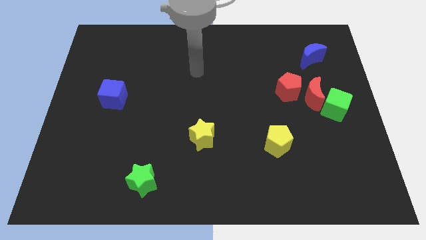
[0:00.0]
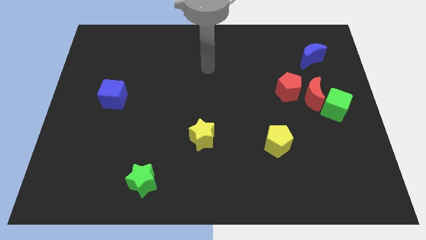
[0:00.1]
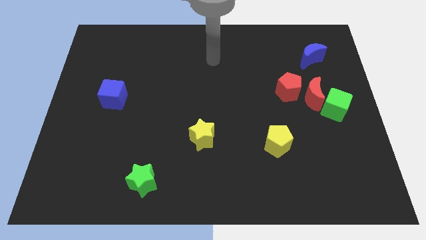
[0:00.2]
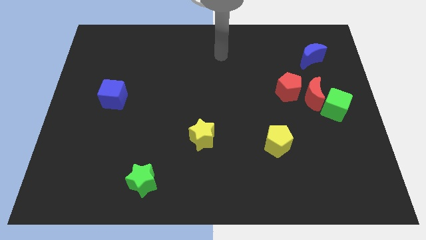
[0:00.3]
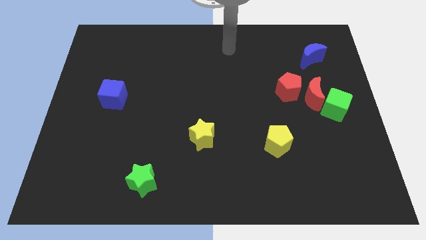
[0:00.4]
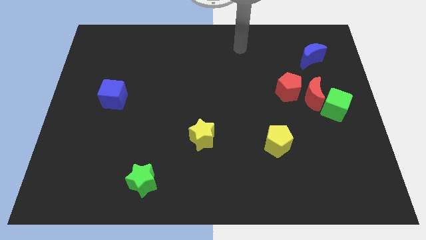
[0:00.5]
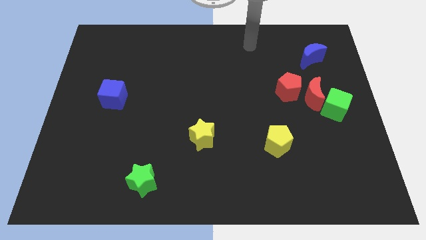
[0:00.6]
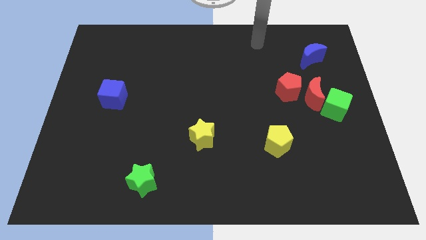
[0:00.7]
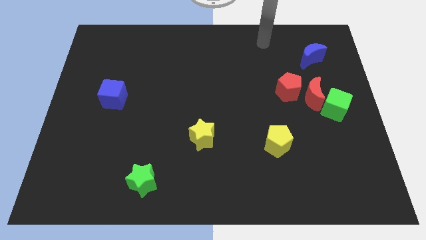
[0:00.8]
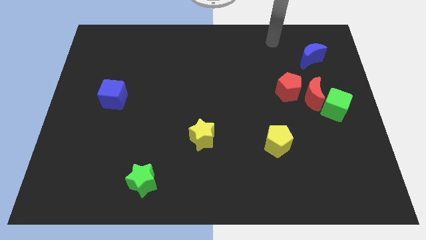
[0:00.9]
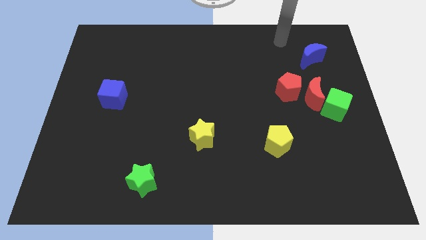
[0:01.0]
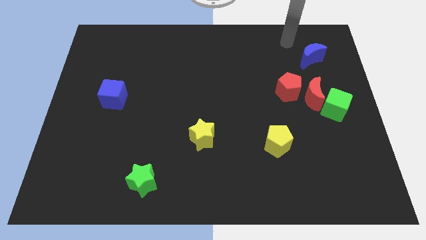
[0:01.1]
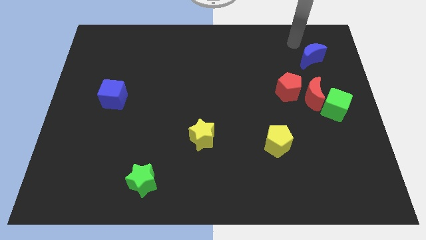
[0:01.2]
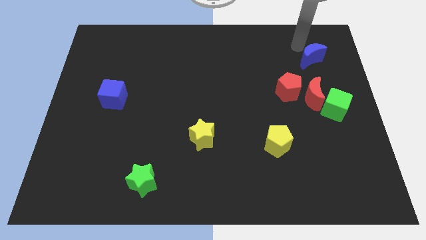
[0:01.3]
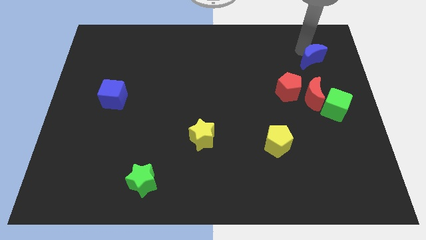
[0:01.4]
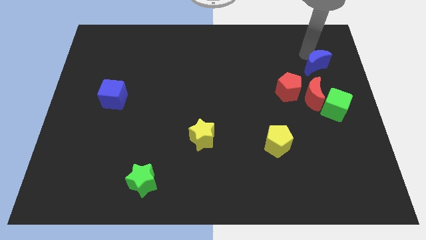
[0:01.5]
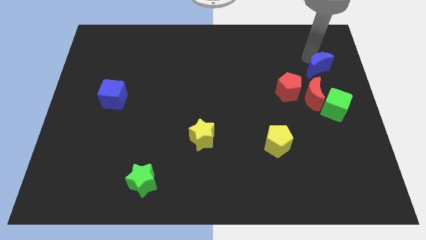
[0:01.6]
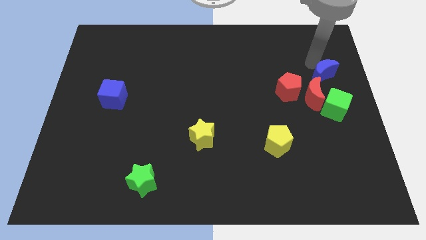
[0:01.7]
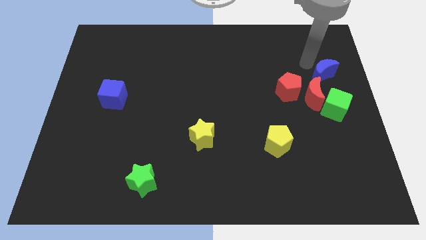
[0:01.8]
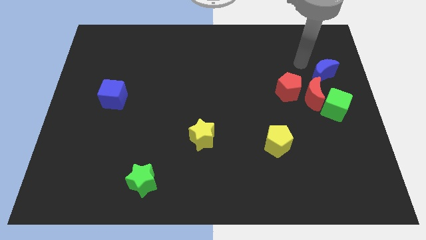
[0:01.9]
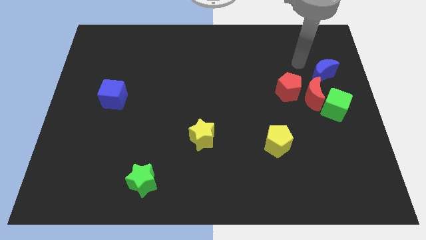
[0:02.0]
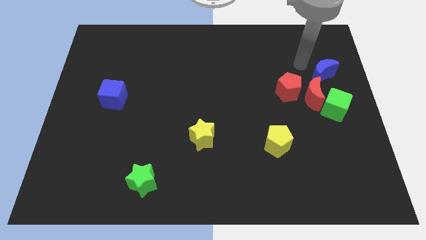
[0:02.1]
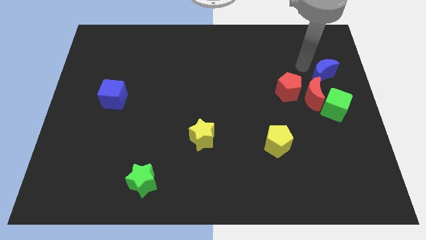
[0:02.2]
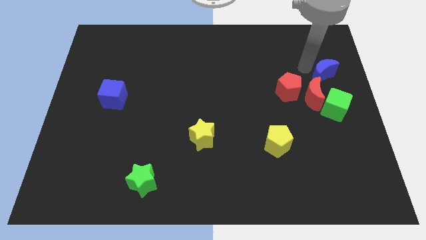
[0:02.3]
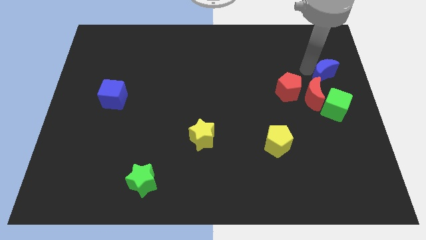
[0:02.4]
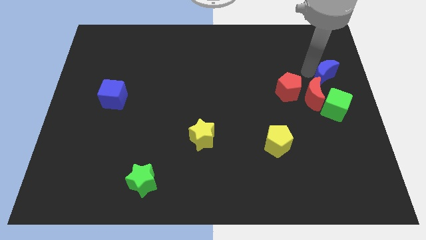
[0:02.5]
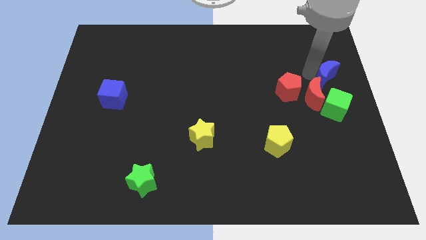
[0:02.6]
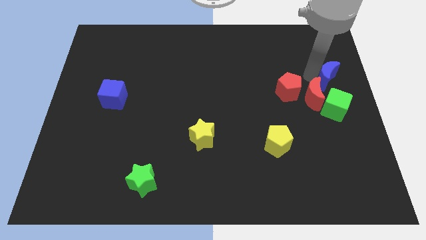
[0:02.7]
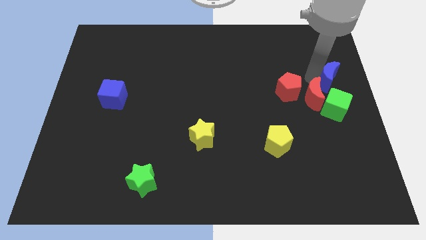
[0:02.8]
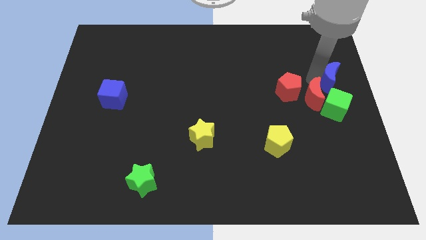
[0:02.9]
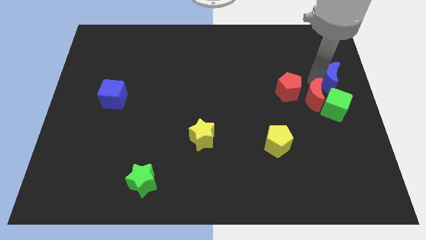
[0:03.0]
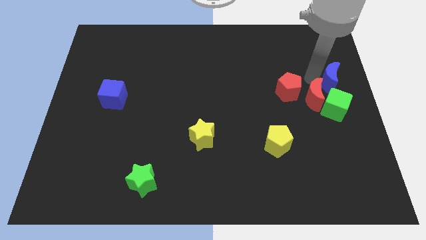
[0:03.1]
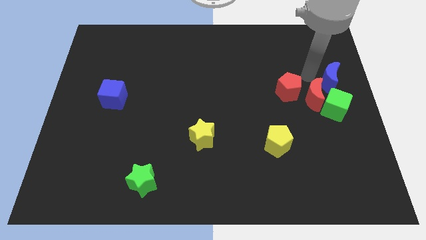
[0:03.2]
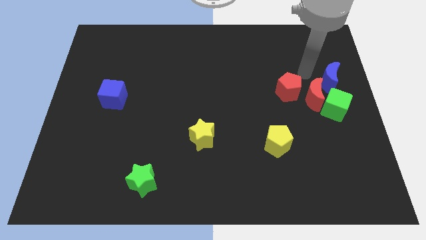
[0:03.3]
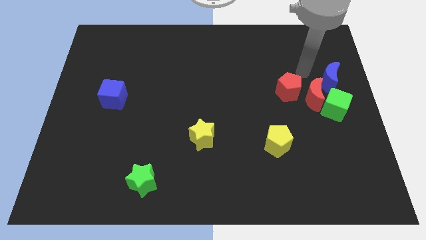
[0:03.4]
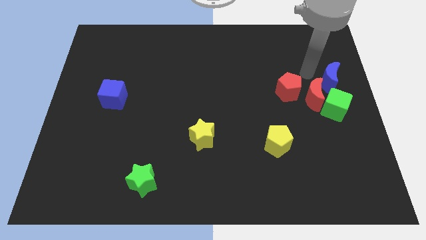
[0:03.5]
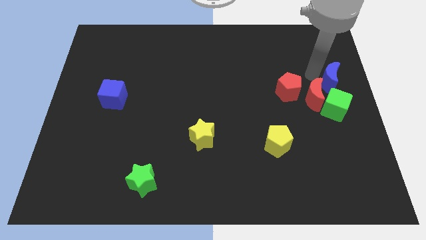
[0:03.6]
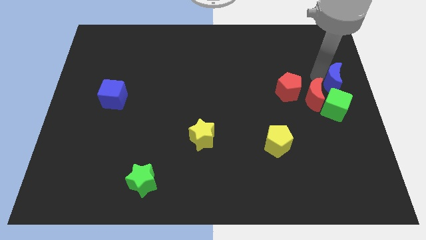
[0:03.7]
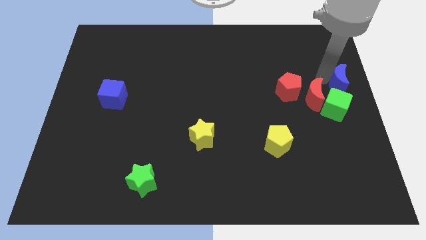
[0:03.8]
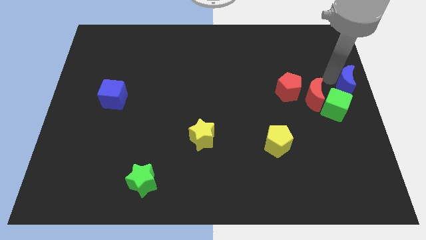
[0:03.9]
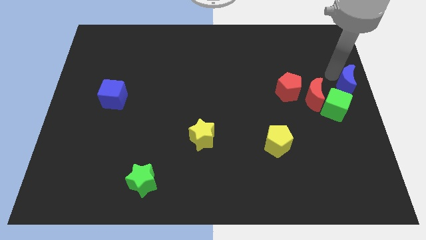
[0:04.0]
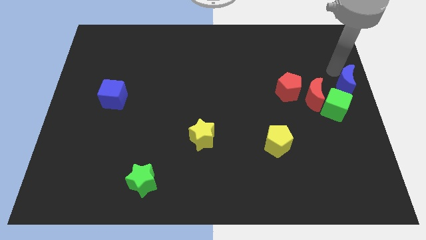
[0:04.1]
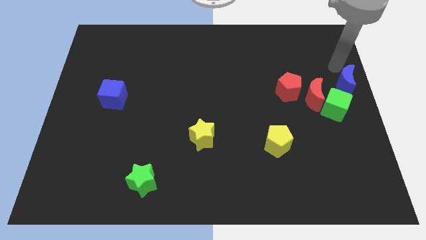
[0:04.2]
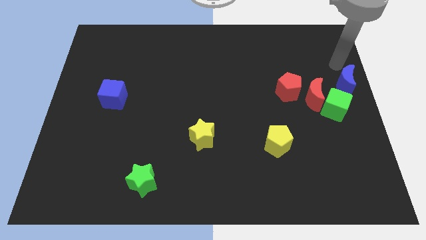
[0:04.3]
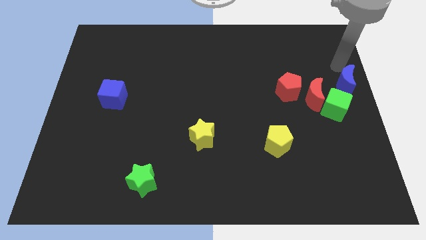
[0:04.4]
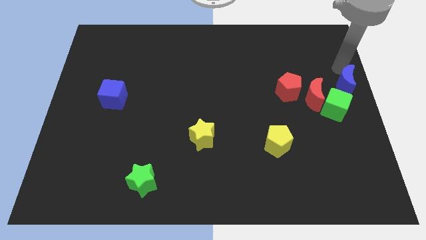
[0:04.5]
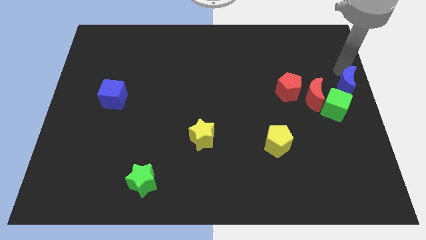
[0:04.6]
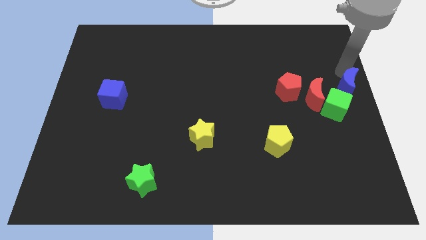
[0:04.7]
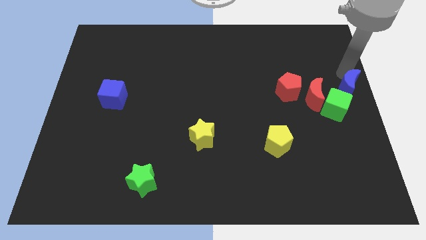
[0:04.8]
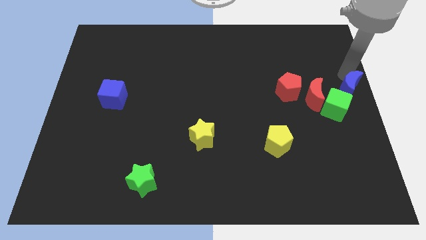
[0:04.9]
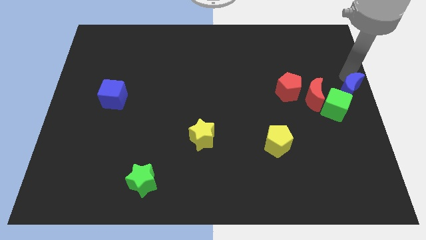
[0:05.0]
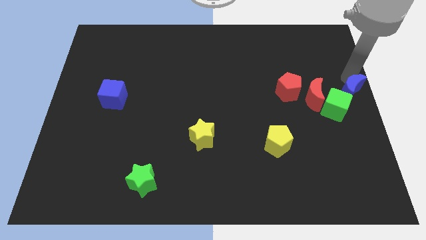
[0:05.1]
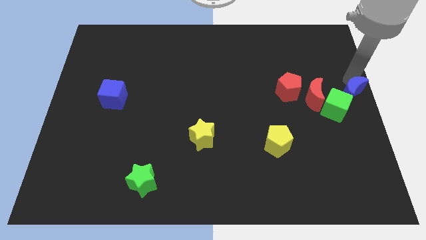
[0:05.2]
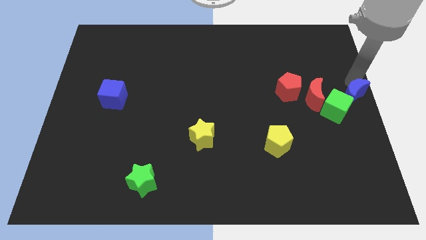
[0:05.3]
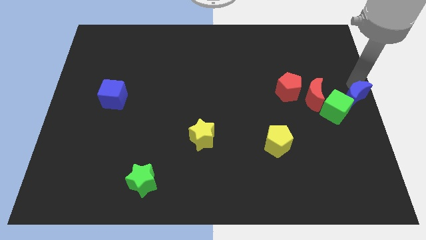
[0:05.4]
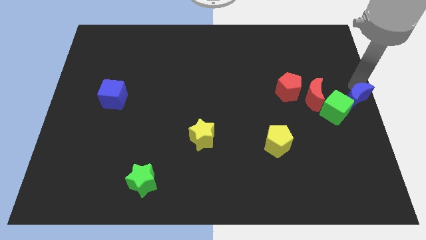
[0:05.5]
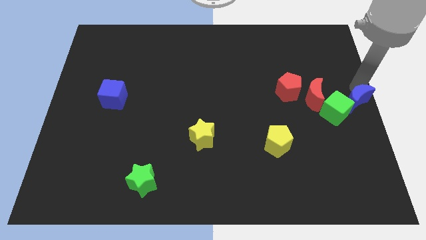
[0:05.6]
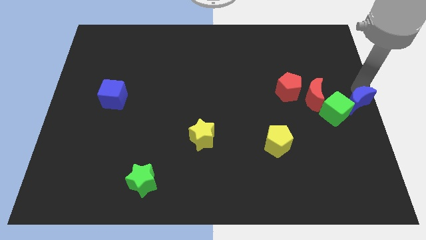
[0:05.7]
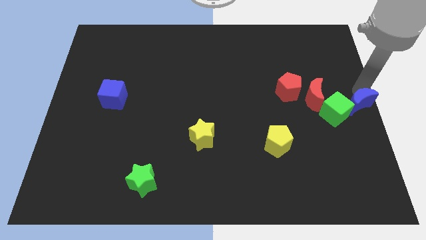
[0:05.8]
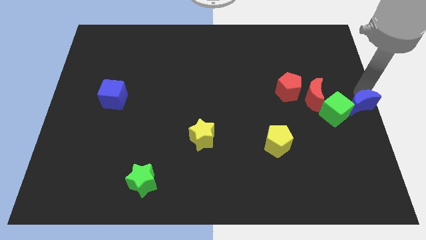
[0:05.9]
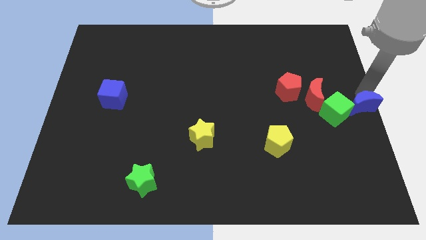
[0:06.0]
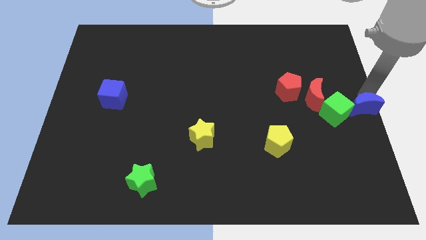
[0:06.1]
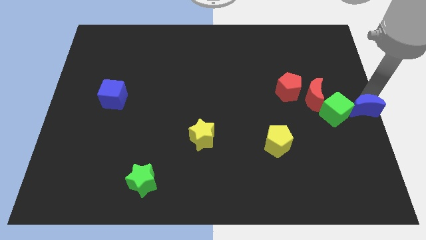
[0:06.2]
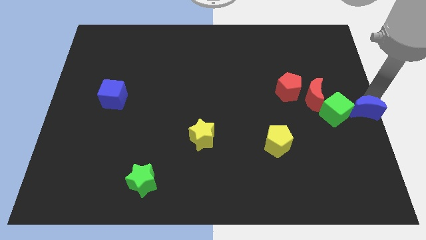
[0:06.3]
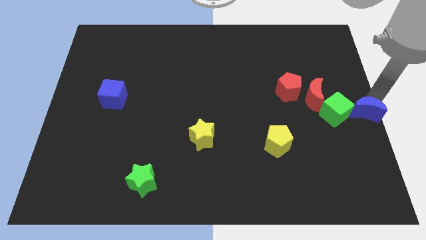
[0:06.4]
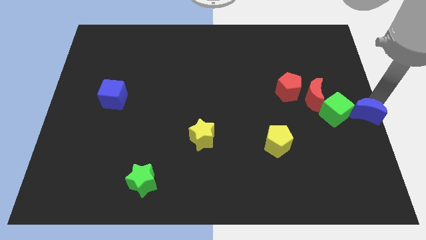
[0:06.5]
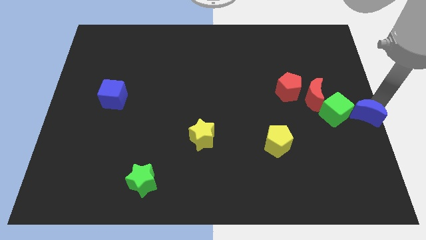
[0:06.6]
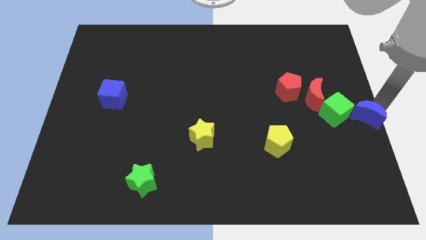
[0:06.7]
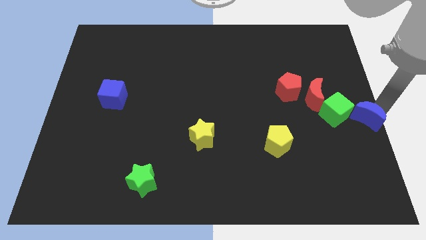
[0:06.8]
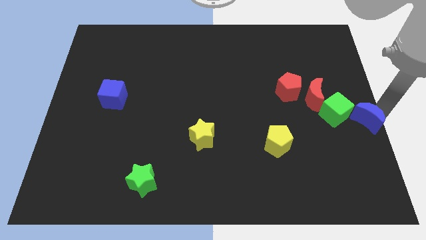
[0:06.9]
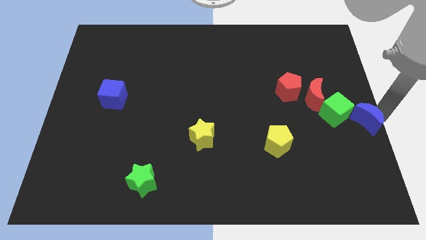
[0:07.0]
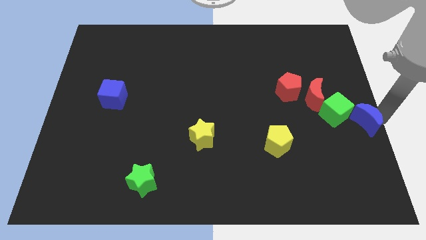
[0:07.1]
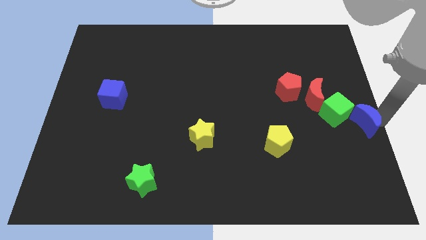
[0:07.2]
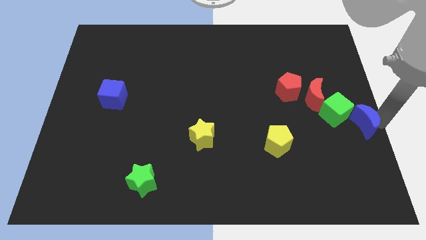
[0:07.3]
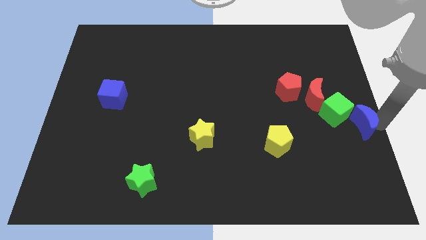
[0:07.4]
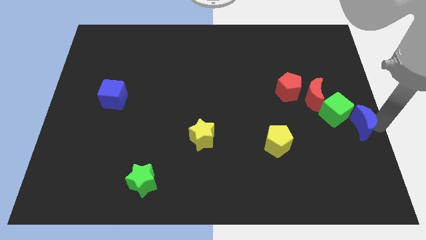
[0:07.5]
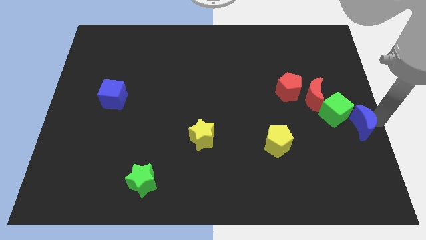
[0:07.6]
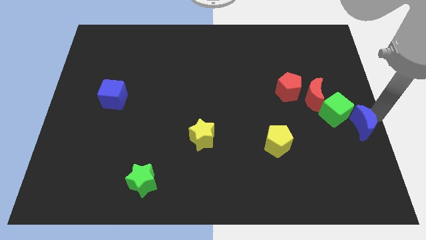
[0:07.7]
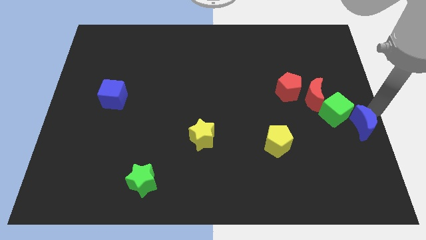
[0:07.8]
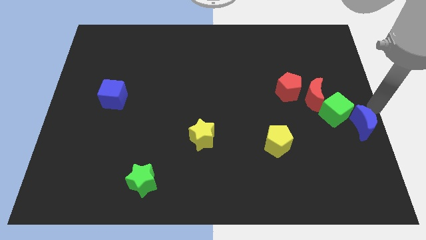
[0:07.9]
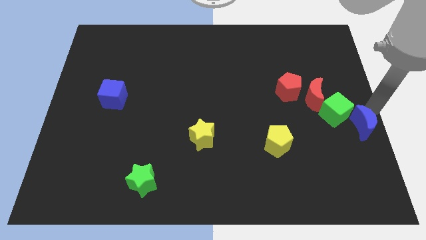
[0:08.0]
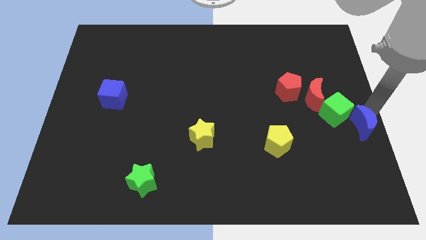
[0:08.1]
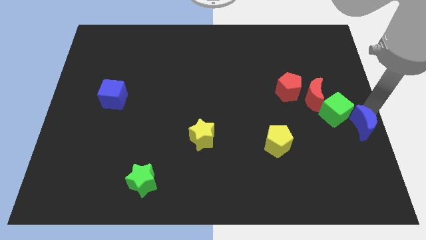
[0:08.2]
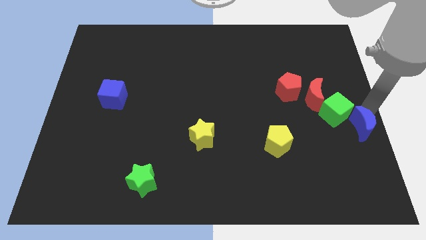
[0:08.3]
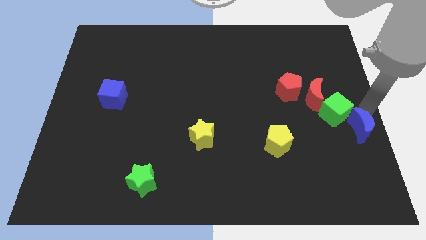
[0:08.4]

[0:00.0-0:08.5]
slide the blue moon downwards
